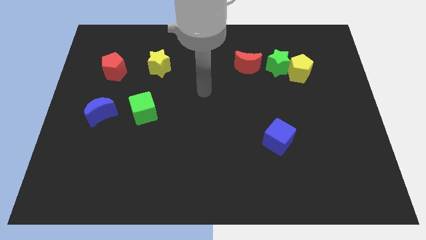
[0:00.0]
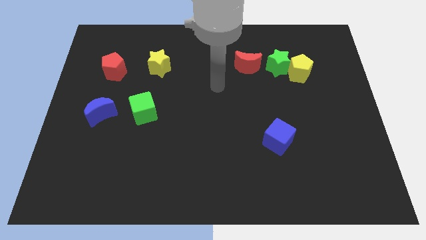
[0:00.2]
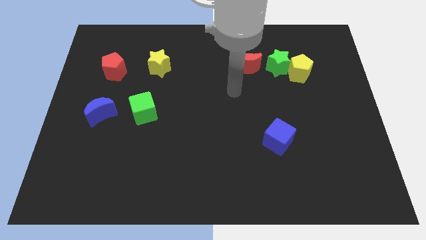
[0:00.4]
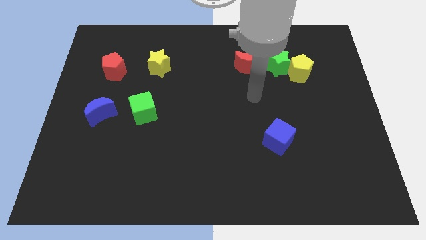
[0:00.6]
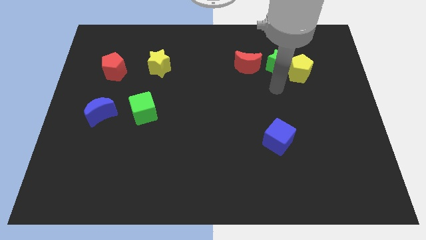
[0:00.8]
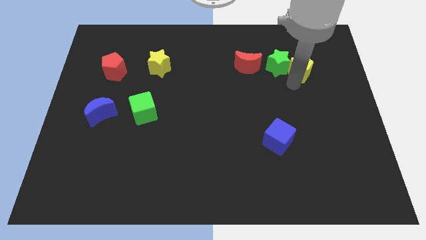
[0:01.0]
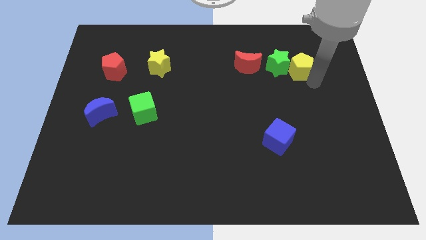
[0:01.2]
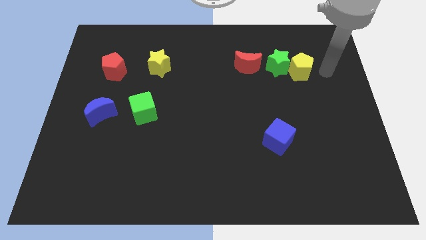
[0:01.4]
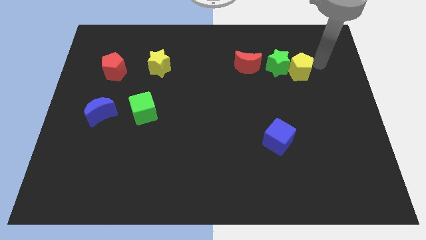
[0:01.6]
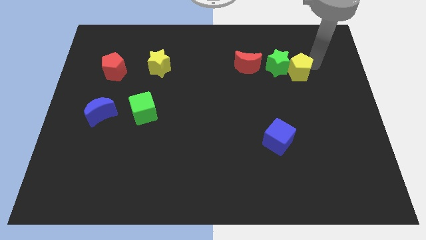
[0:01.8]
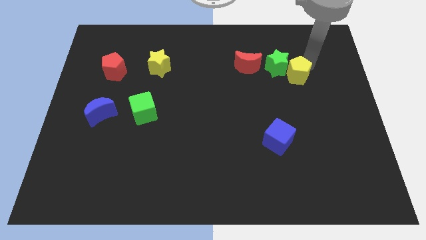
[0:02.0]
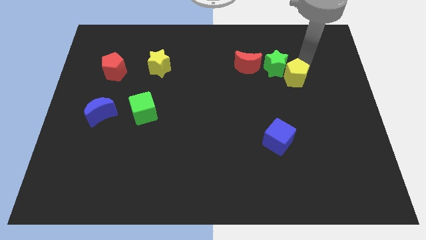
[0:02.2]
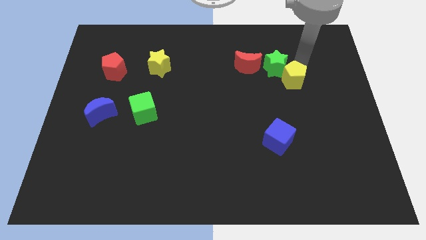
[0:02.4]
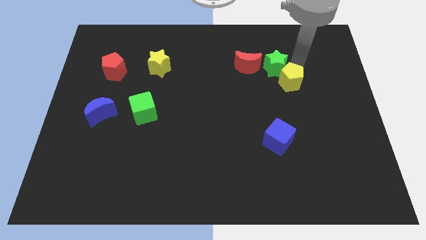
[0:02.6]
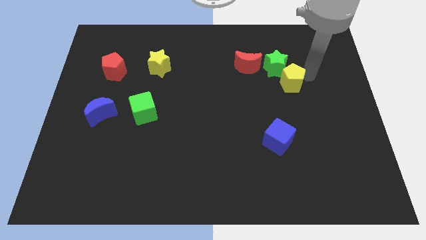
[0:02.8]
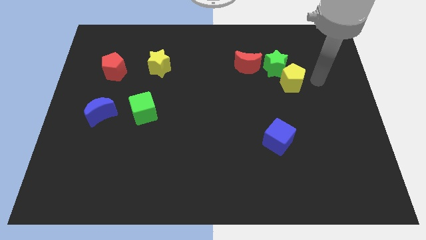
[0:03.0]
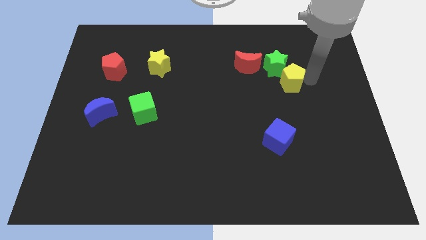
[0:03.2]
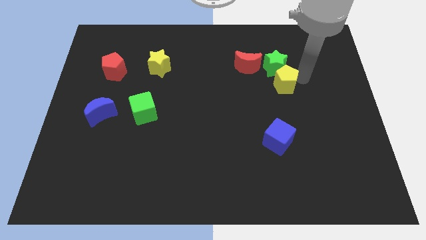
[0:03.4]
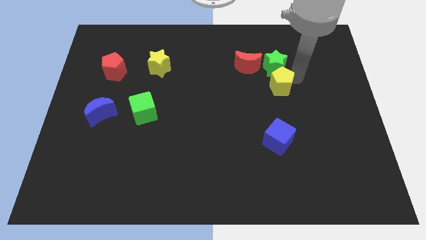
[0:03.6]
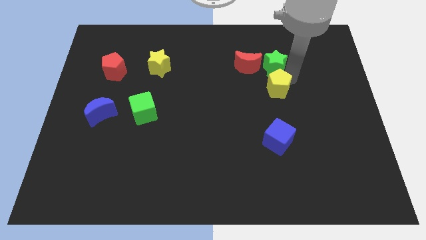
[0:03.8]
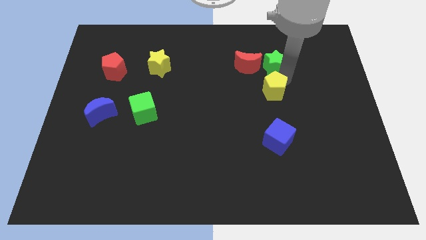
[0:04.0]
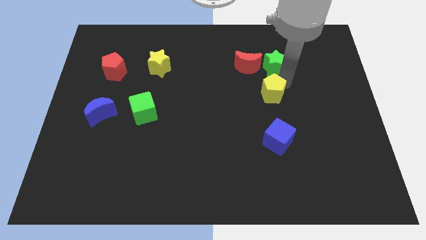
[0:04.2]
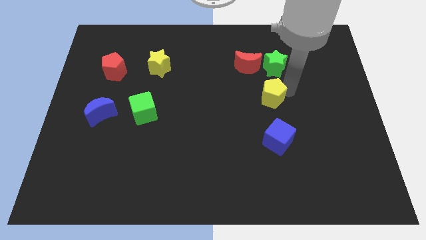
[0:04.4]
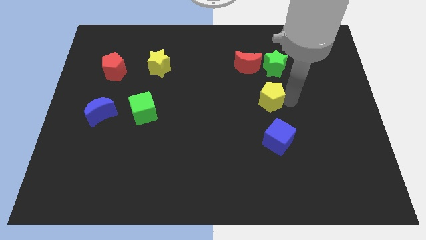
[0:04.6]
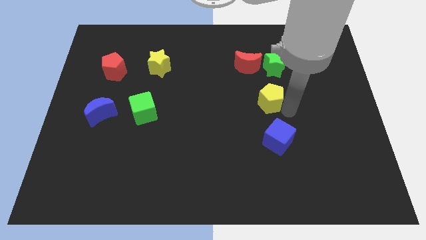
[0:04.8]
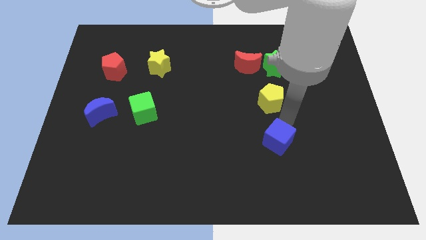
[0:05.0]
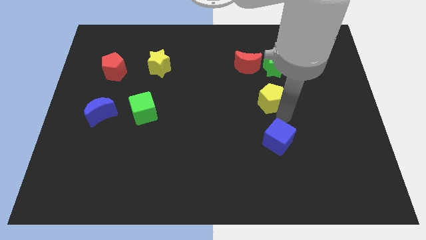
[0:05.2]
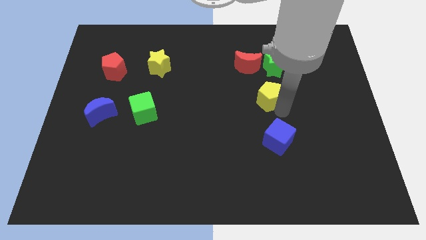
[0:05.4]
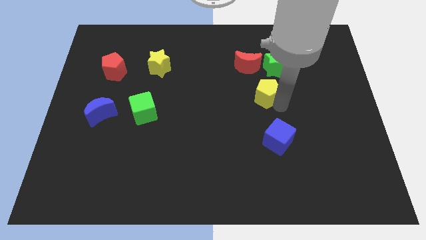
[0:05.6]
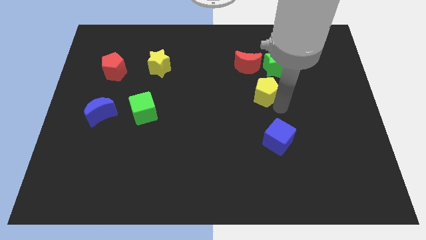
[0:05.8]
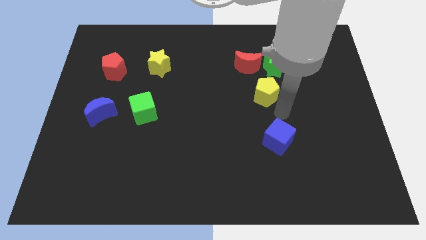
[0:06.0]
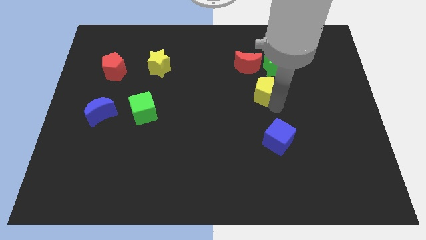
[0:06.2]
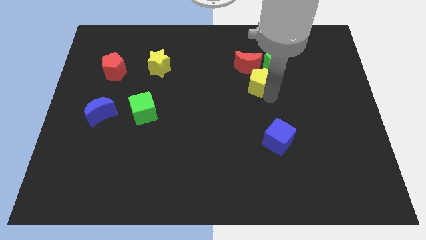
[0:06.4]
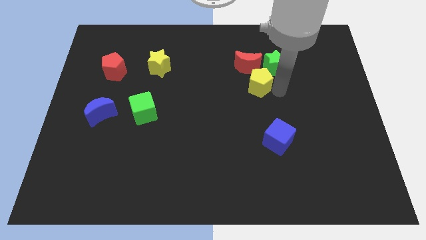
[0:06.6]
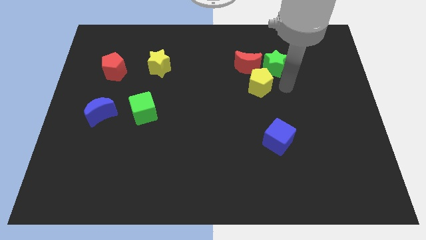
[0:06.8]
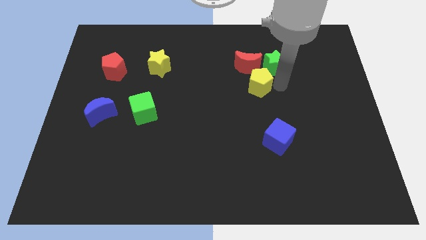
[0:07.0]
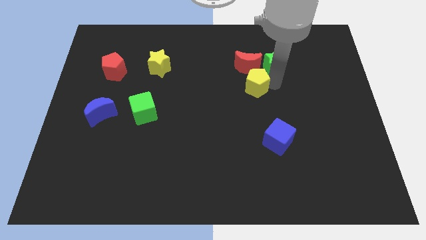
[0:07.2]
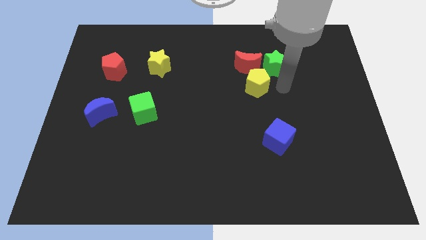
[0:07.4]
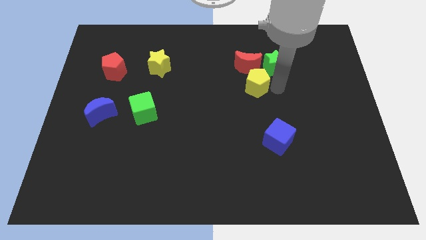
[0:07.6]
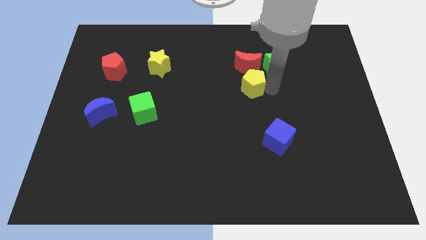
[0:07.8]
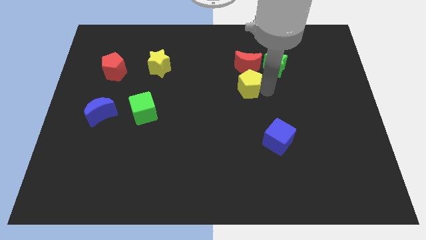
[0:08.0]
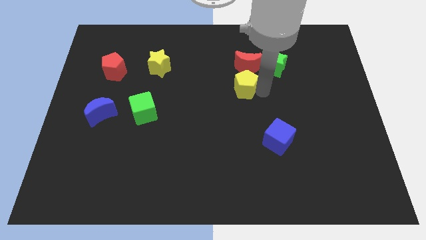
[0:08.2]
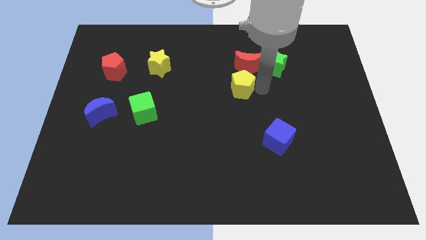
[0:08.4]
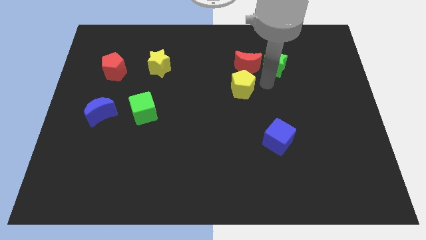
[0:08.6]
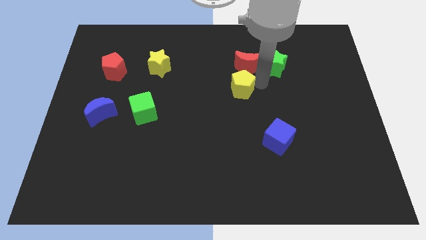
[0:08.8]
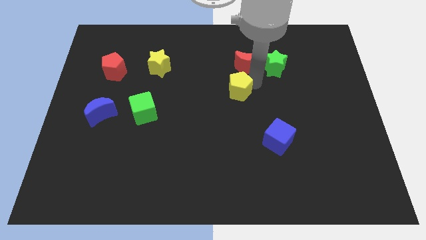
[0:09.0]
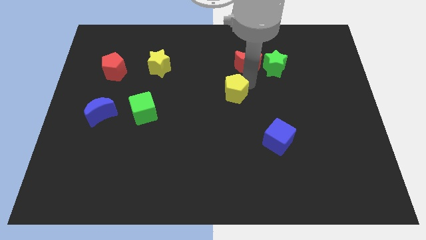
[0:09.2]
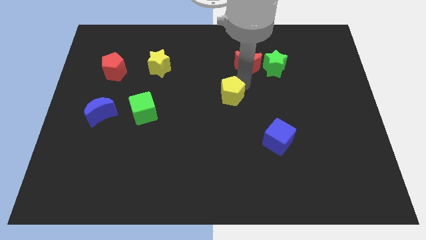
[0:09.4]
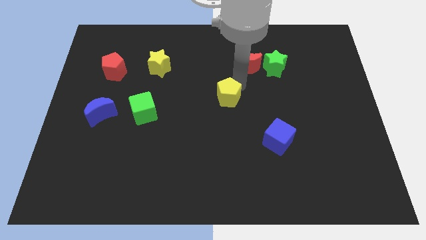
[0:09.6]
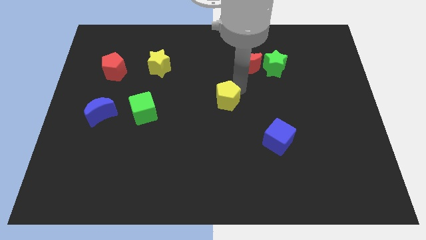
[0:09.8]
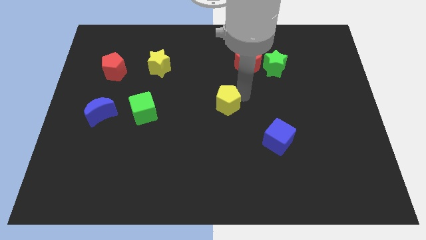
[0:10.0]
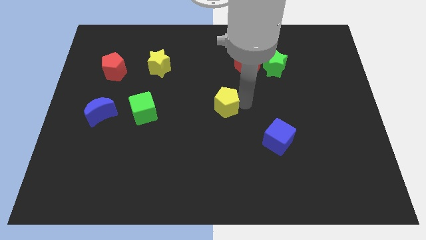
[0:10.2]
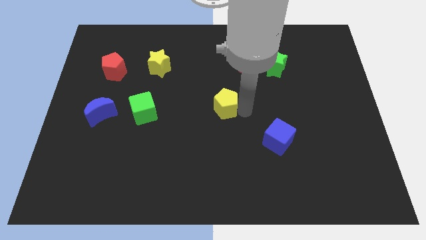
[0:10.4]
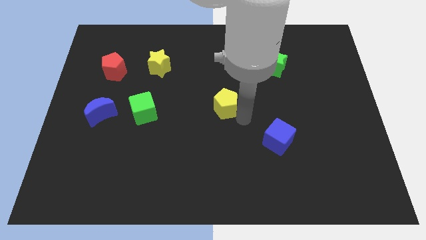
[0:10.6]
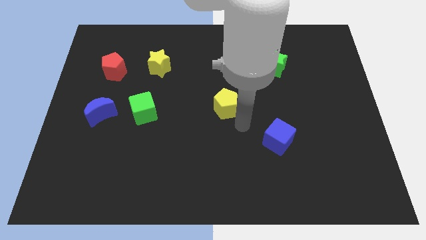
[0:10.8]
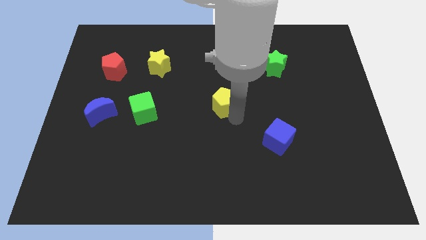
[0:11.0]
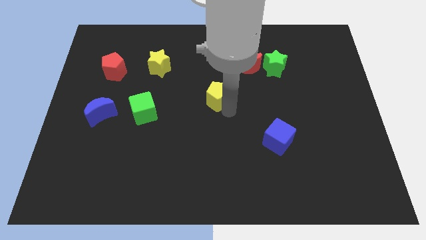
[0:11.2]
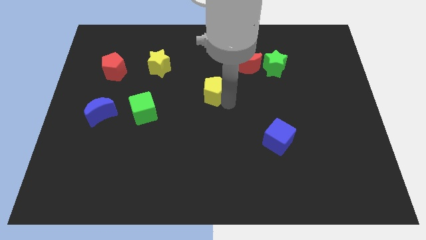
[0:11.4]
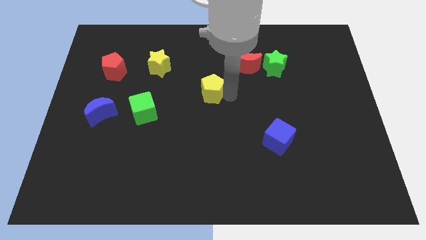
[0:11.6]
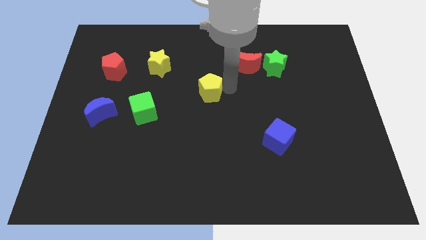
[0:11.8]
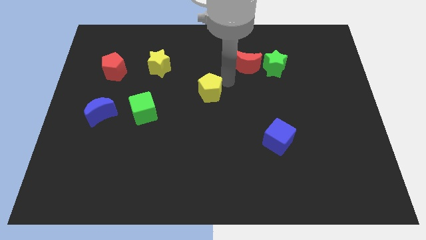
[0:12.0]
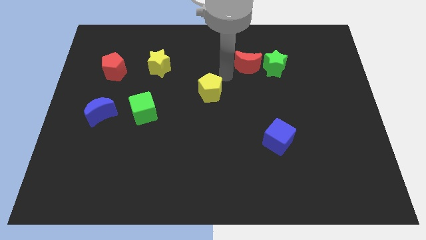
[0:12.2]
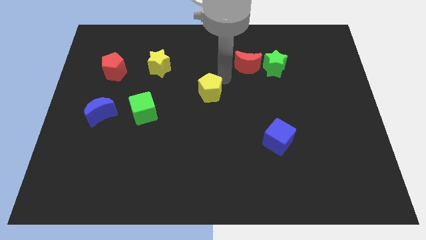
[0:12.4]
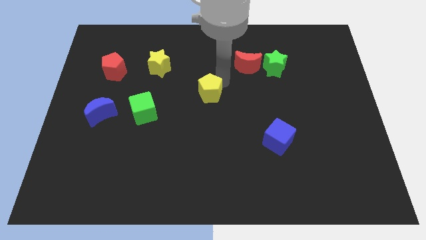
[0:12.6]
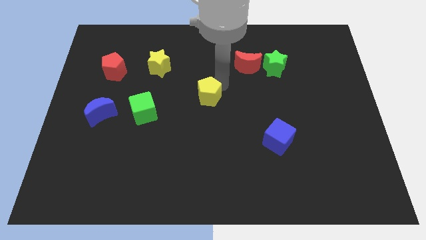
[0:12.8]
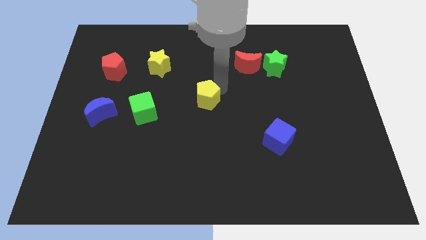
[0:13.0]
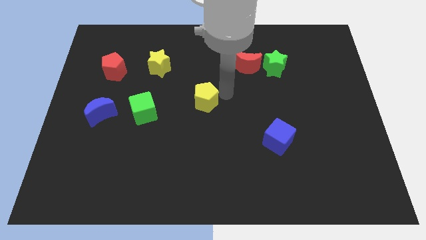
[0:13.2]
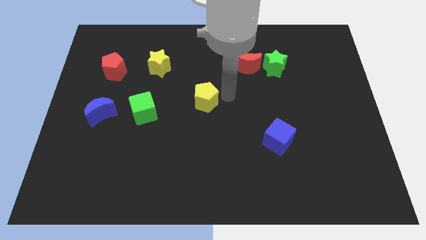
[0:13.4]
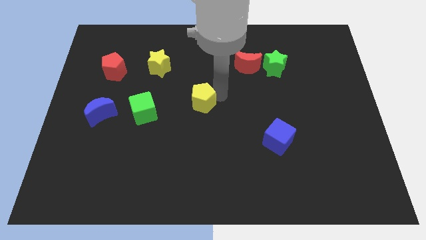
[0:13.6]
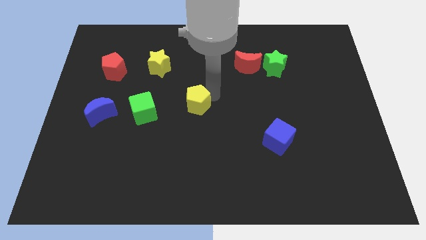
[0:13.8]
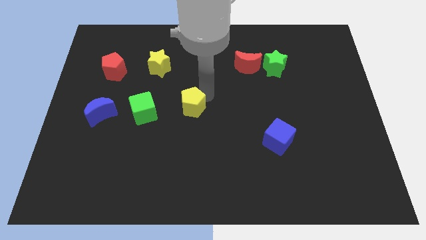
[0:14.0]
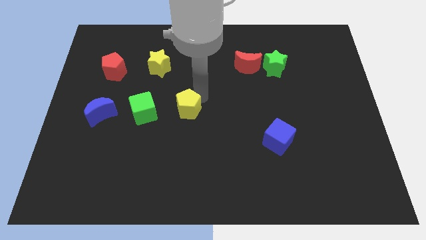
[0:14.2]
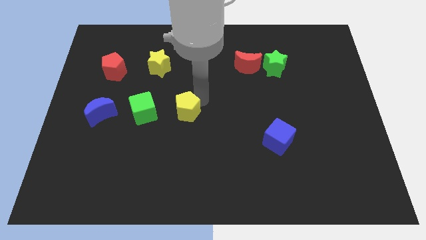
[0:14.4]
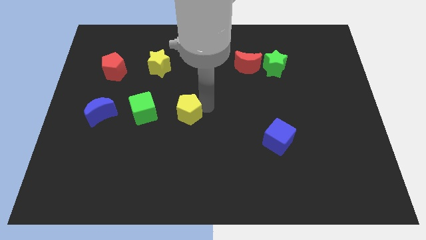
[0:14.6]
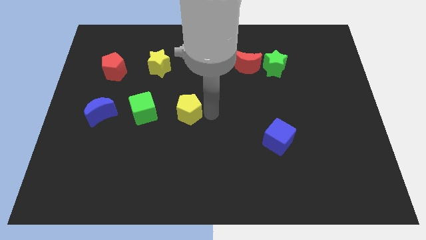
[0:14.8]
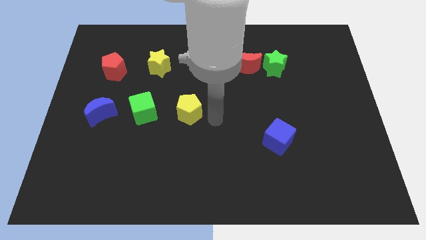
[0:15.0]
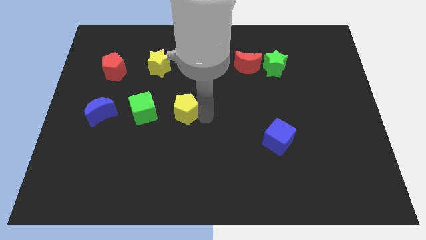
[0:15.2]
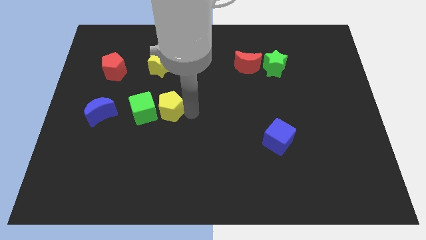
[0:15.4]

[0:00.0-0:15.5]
put the yellow pentagon towards the green cube
